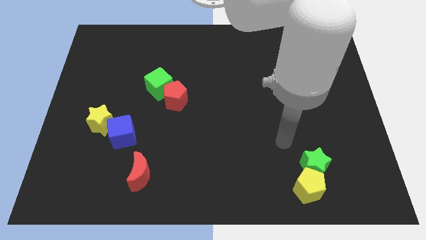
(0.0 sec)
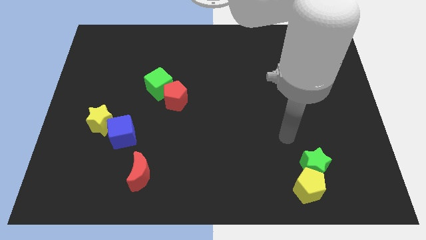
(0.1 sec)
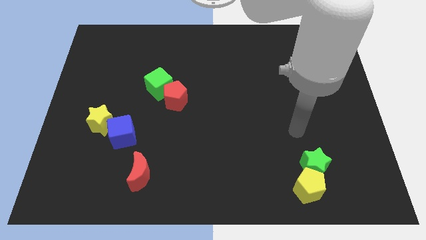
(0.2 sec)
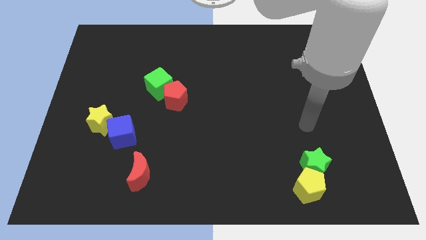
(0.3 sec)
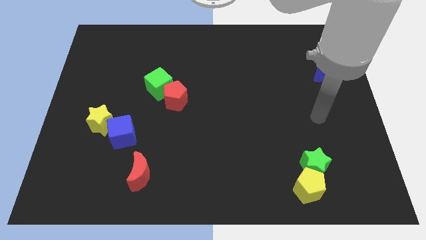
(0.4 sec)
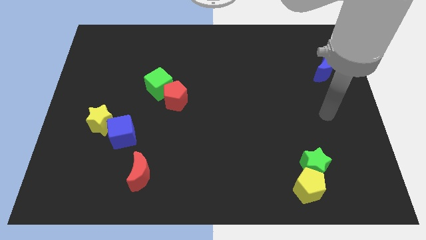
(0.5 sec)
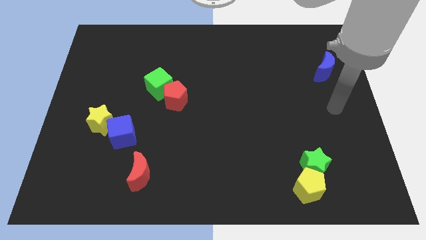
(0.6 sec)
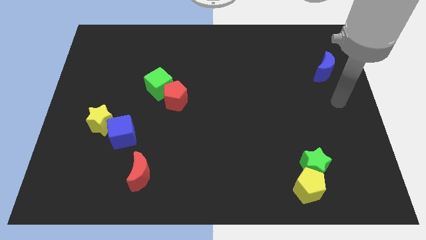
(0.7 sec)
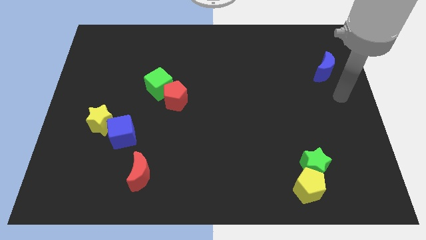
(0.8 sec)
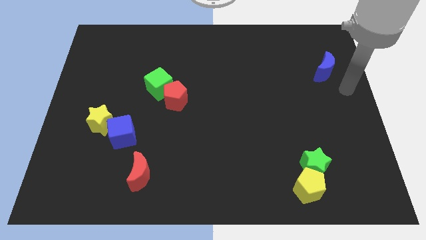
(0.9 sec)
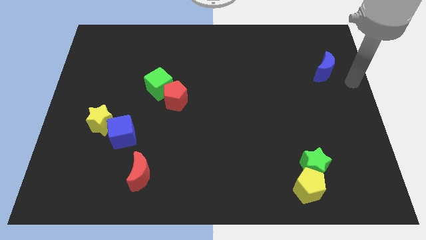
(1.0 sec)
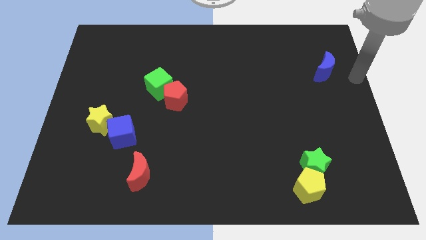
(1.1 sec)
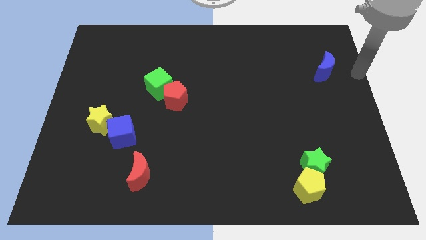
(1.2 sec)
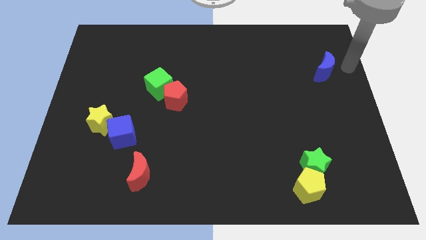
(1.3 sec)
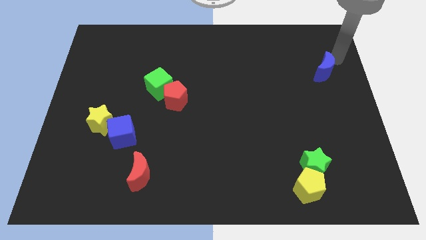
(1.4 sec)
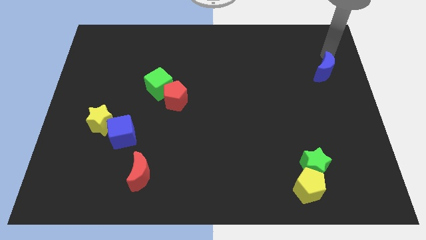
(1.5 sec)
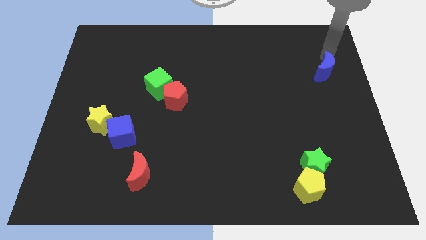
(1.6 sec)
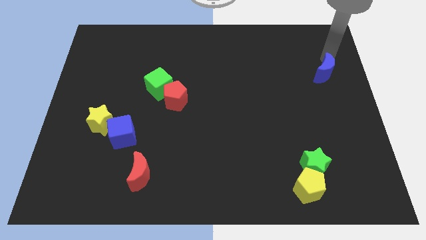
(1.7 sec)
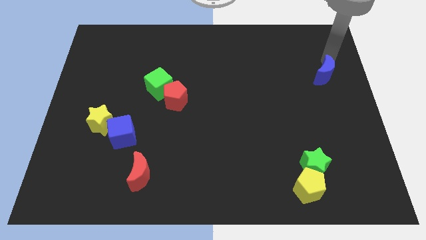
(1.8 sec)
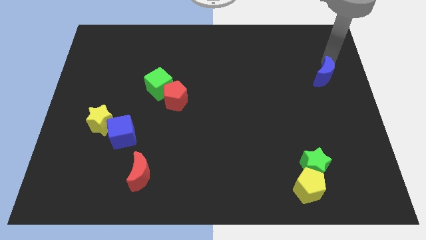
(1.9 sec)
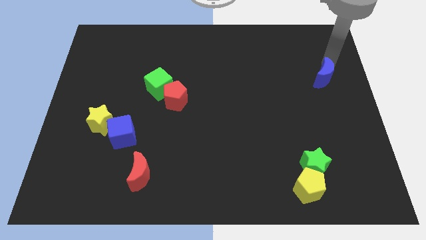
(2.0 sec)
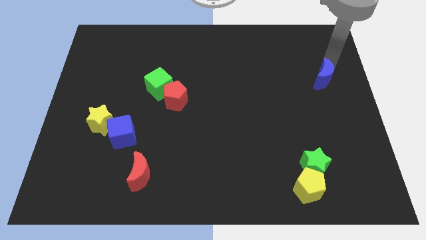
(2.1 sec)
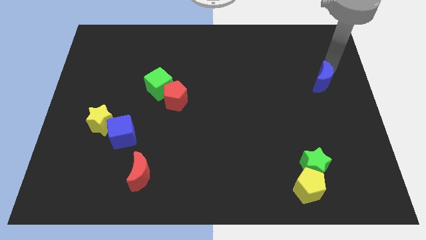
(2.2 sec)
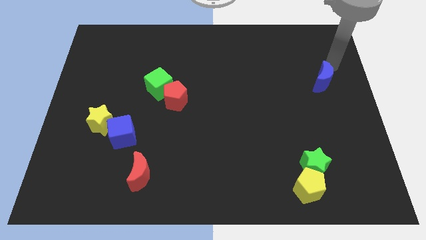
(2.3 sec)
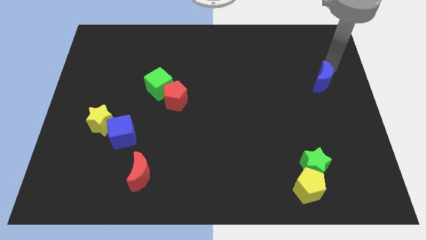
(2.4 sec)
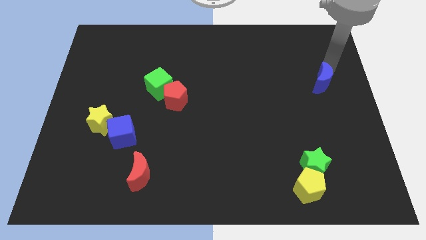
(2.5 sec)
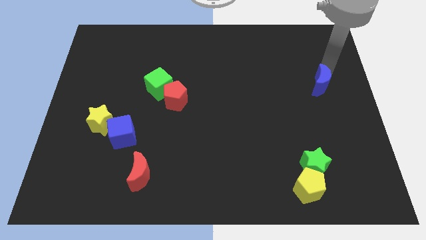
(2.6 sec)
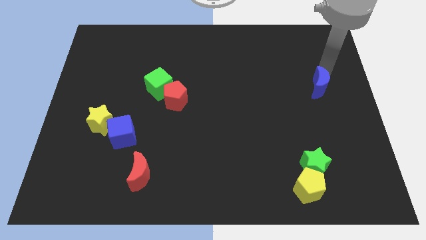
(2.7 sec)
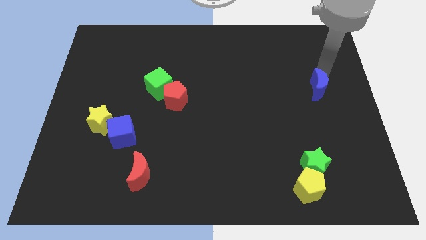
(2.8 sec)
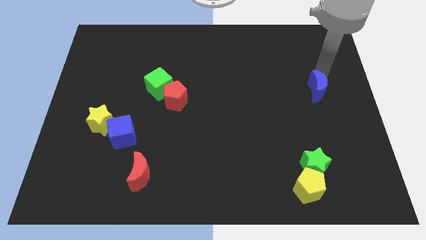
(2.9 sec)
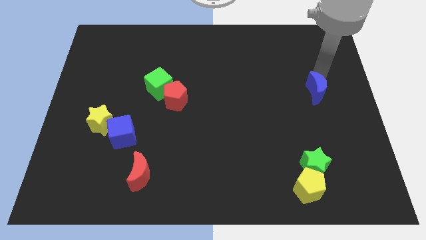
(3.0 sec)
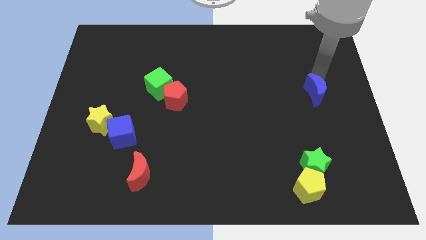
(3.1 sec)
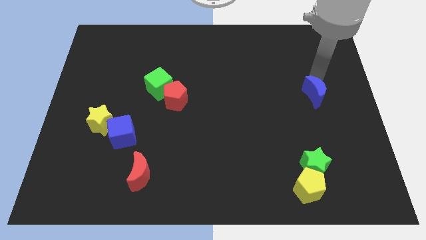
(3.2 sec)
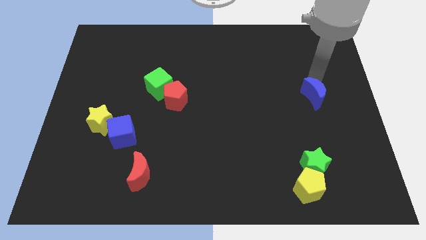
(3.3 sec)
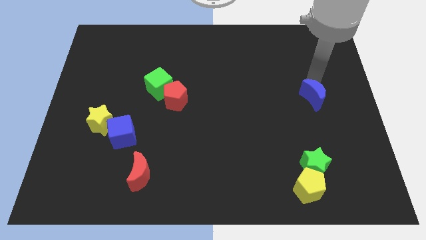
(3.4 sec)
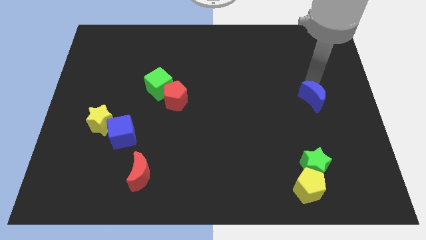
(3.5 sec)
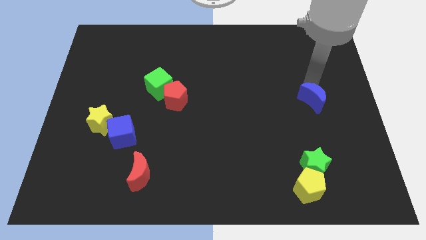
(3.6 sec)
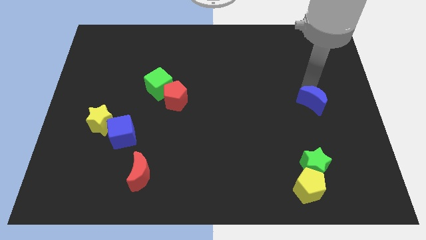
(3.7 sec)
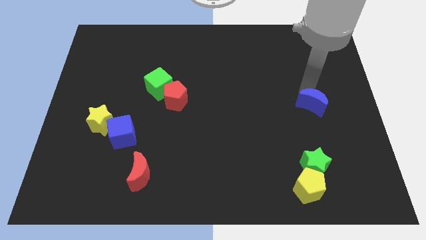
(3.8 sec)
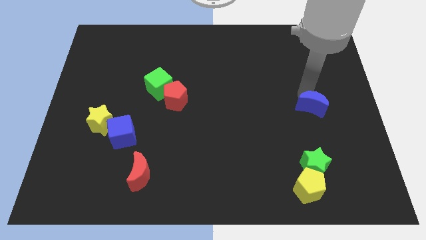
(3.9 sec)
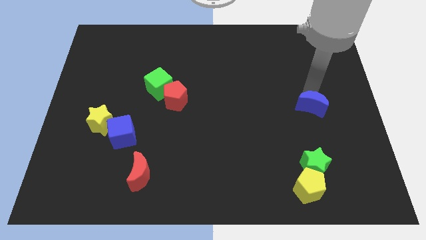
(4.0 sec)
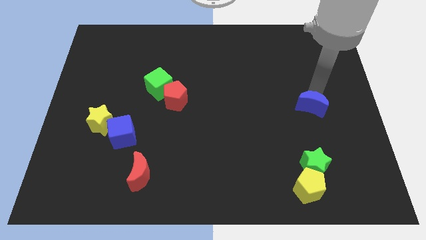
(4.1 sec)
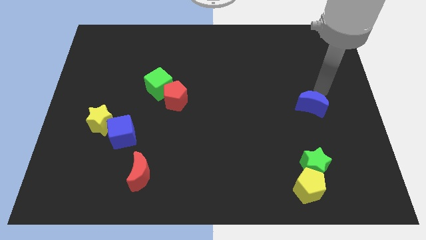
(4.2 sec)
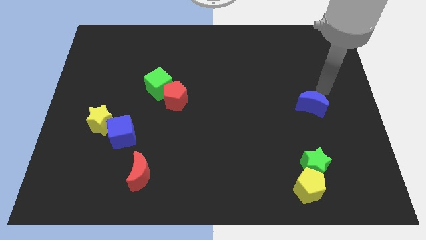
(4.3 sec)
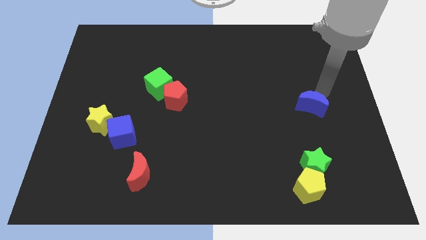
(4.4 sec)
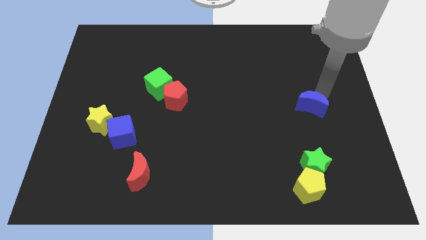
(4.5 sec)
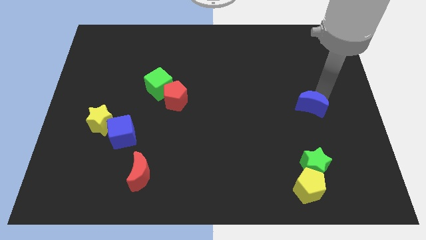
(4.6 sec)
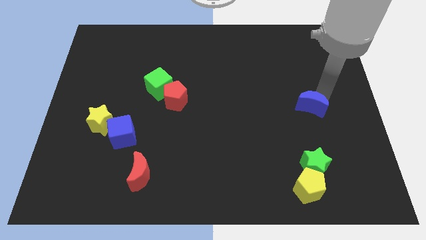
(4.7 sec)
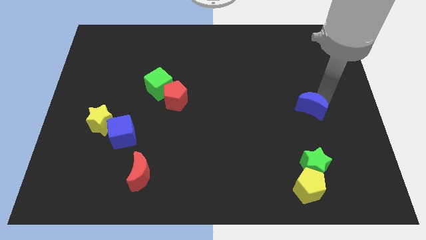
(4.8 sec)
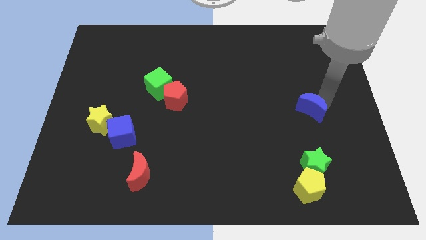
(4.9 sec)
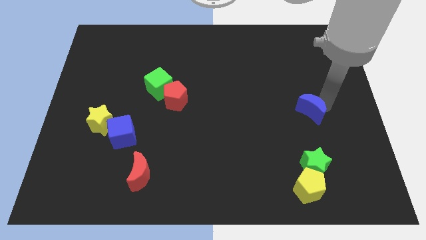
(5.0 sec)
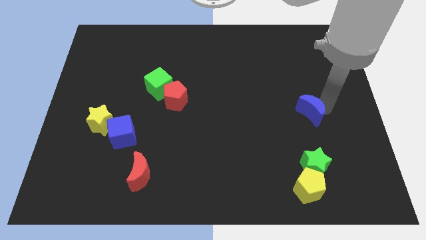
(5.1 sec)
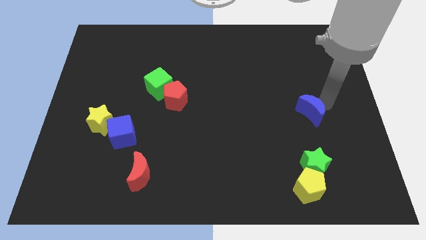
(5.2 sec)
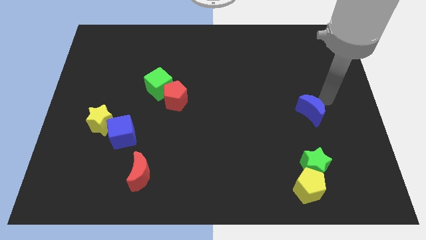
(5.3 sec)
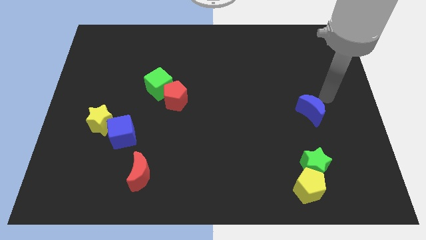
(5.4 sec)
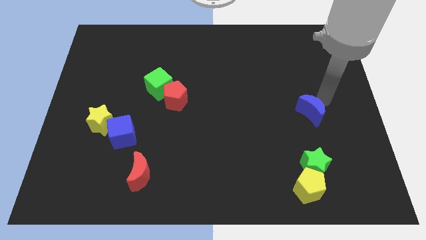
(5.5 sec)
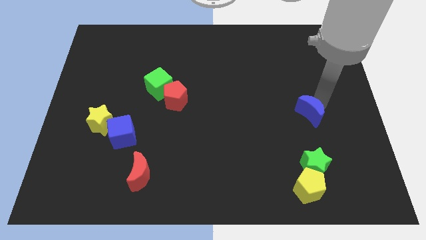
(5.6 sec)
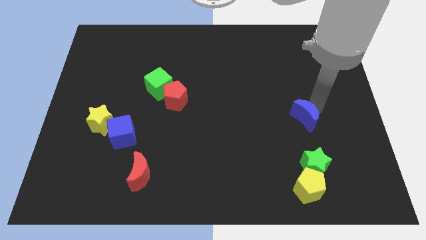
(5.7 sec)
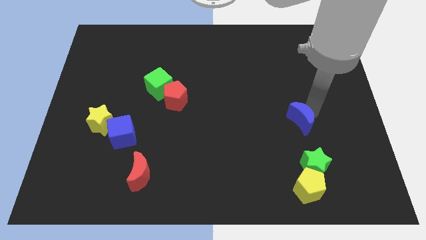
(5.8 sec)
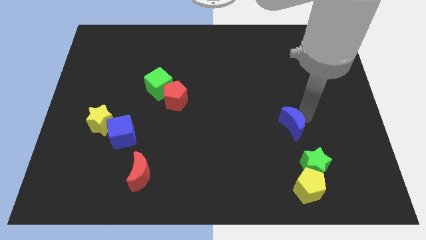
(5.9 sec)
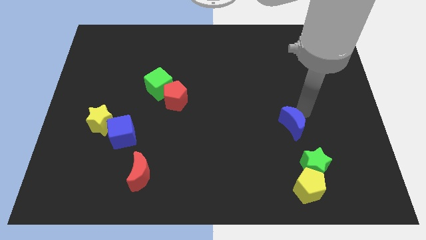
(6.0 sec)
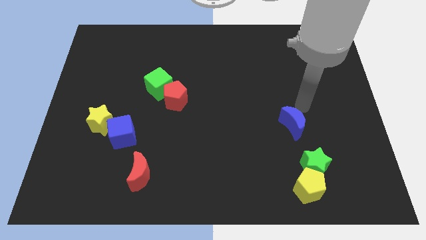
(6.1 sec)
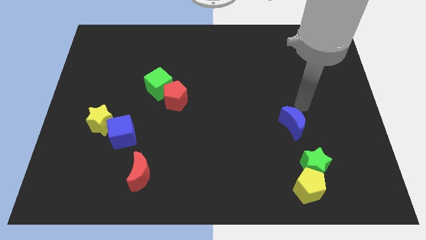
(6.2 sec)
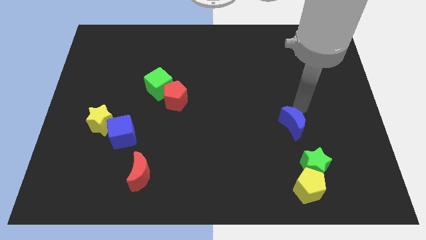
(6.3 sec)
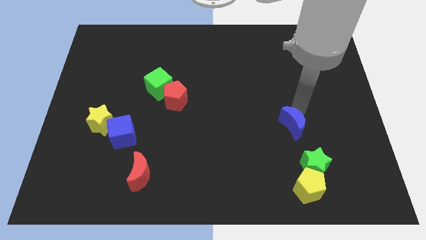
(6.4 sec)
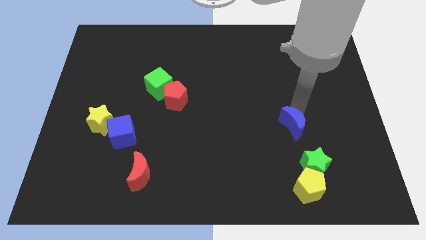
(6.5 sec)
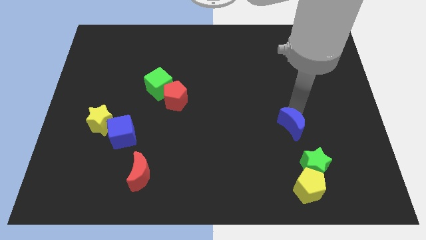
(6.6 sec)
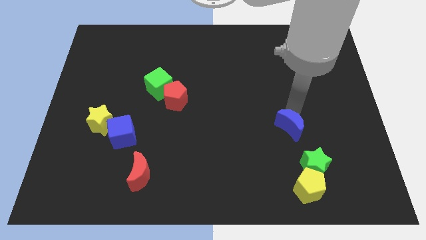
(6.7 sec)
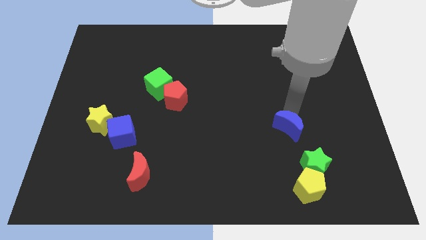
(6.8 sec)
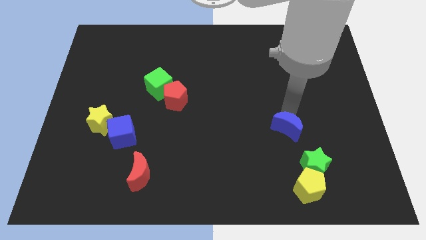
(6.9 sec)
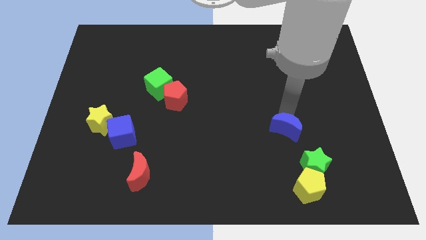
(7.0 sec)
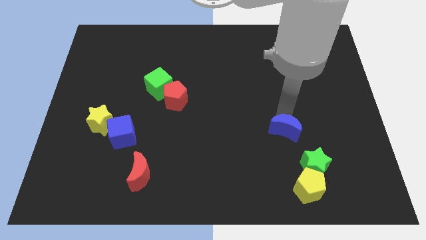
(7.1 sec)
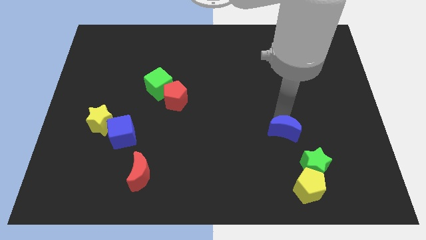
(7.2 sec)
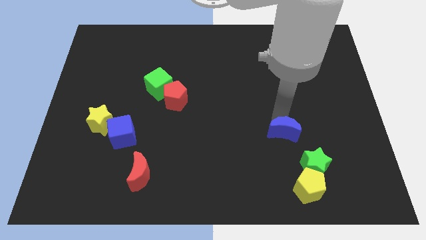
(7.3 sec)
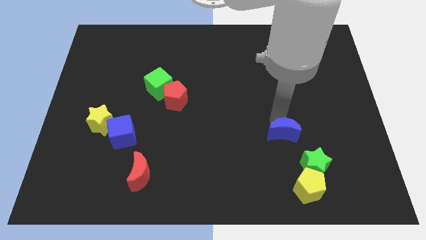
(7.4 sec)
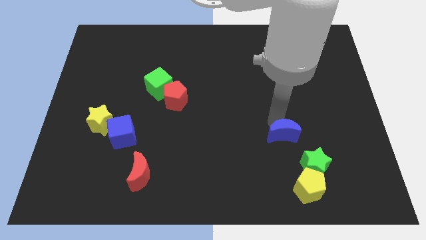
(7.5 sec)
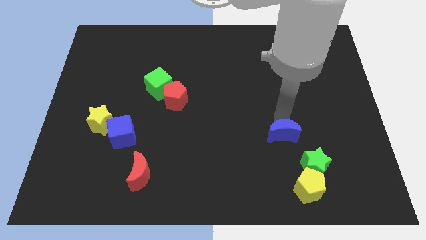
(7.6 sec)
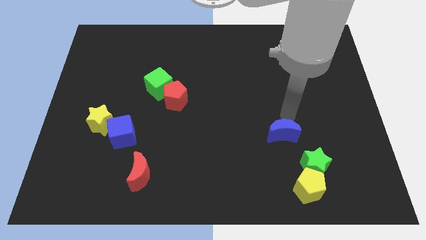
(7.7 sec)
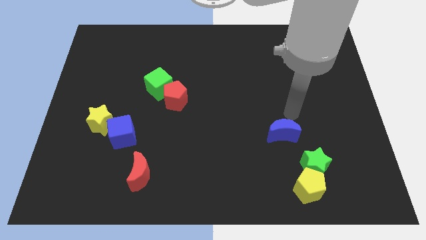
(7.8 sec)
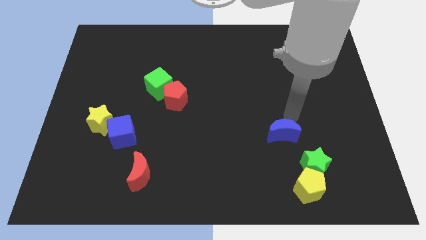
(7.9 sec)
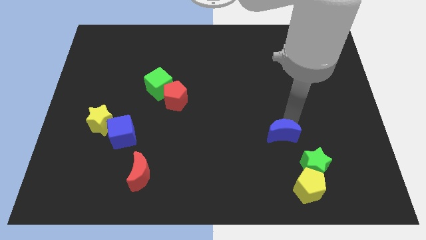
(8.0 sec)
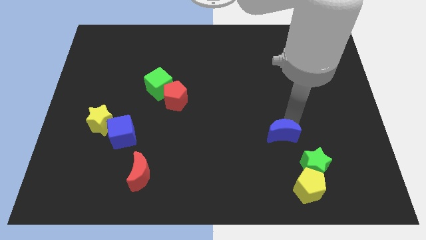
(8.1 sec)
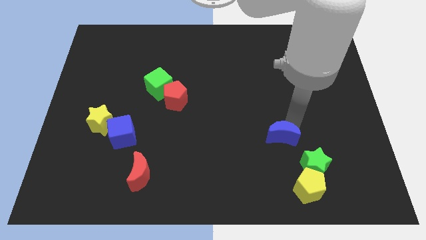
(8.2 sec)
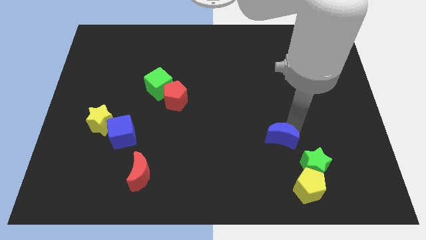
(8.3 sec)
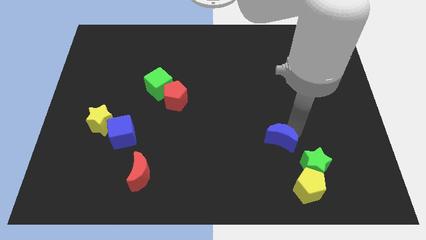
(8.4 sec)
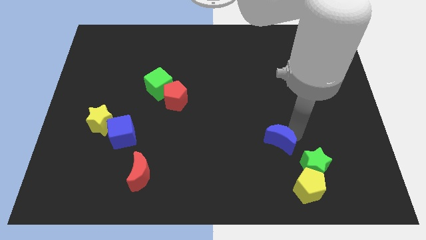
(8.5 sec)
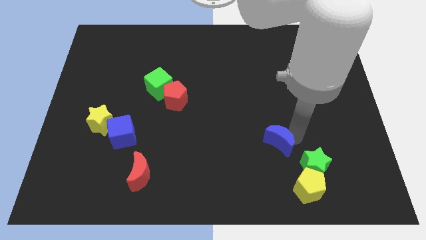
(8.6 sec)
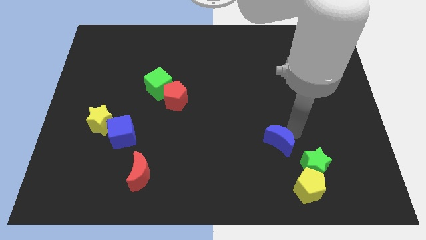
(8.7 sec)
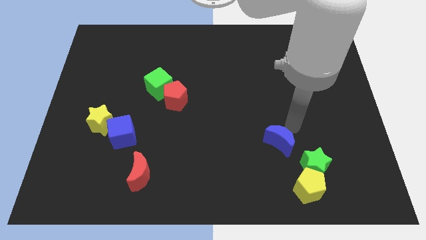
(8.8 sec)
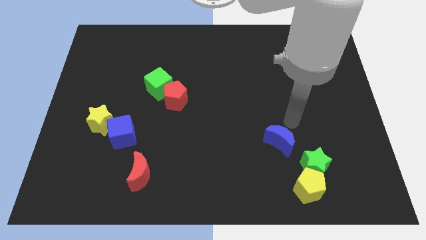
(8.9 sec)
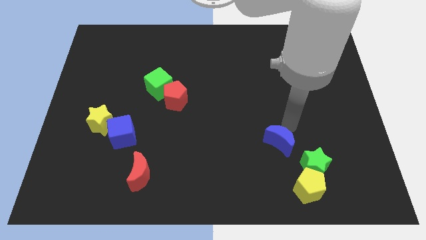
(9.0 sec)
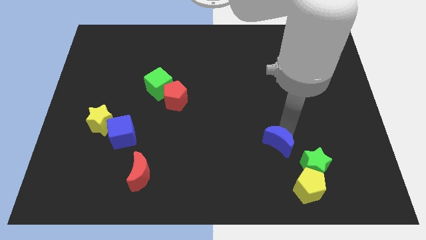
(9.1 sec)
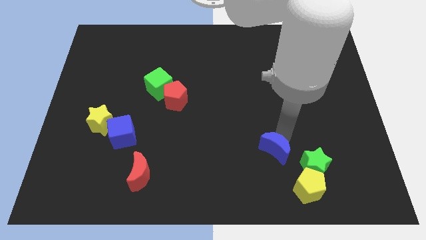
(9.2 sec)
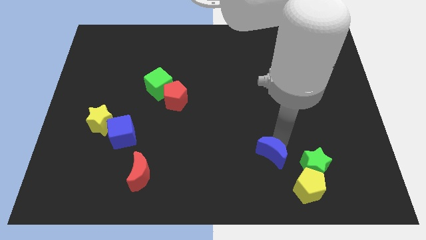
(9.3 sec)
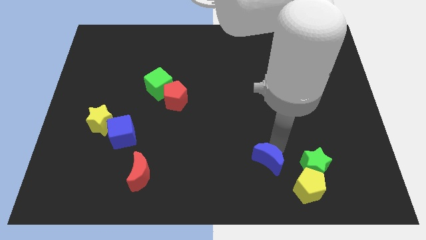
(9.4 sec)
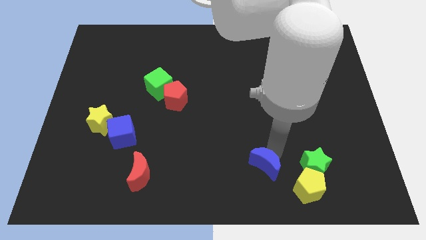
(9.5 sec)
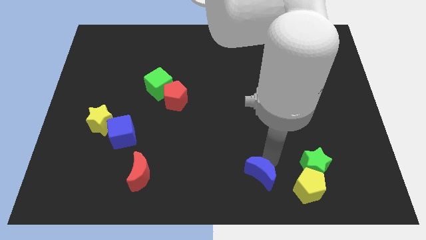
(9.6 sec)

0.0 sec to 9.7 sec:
push the blue moon to the bottom side
